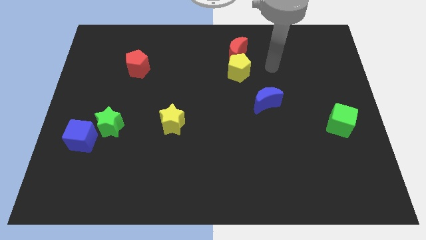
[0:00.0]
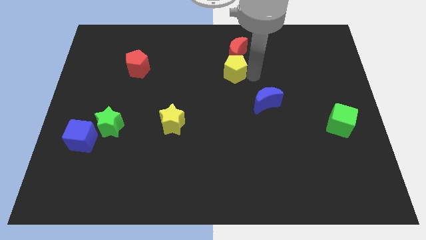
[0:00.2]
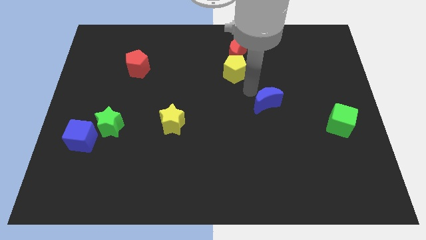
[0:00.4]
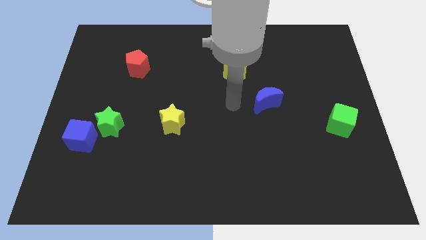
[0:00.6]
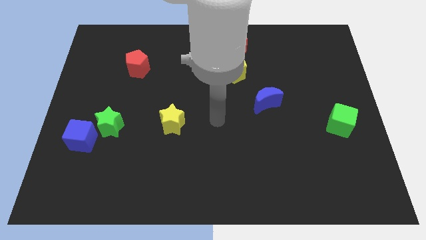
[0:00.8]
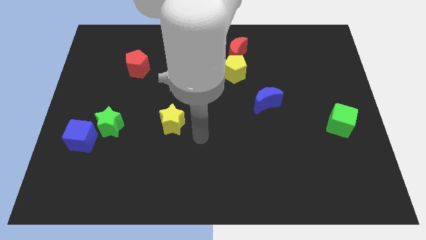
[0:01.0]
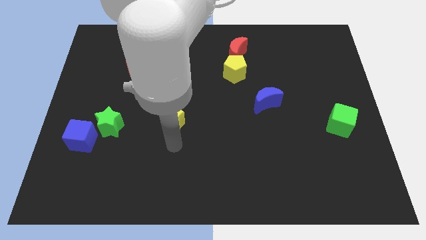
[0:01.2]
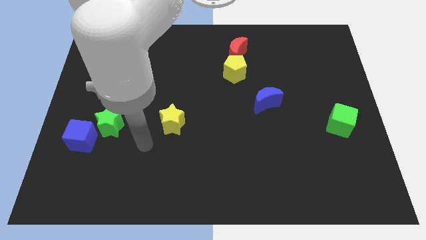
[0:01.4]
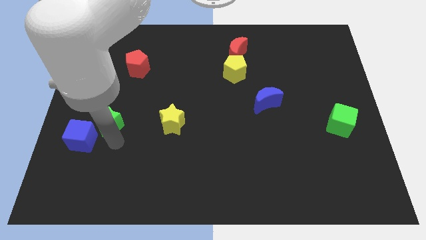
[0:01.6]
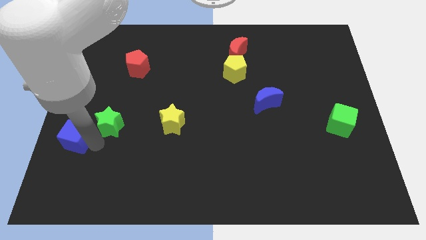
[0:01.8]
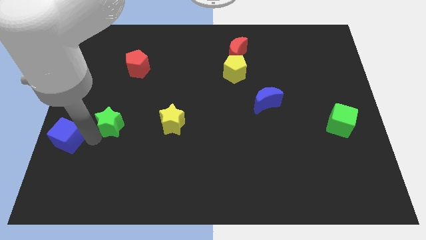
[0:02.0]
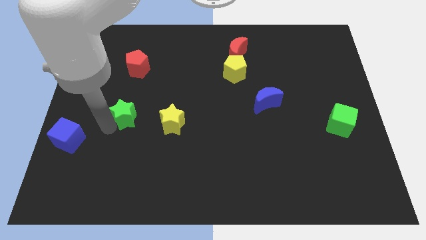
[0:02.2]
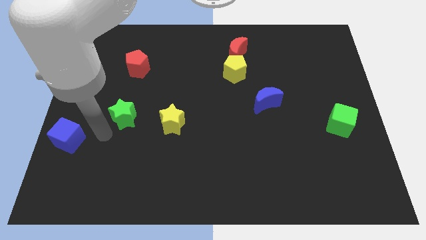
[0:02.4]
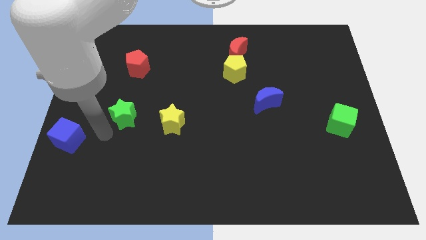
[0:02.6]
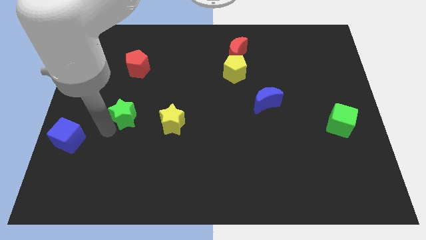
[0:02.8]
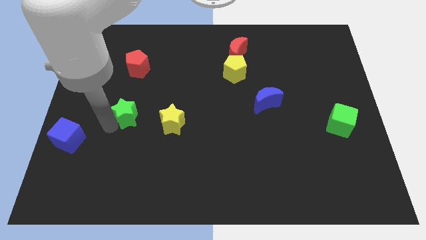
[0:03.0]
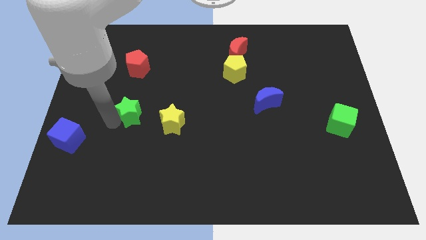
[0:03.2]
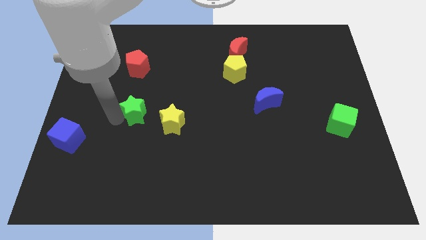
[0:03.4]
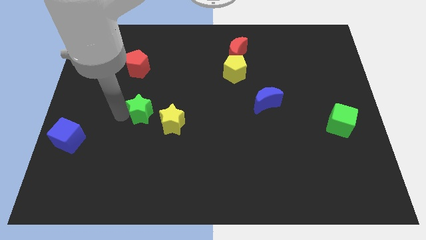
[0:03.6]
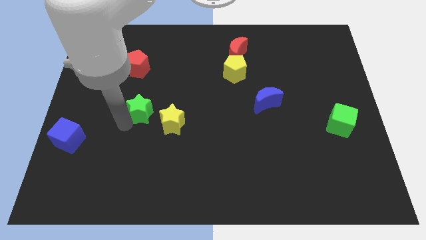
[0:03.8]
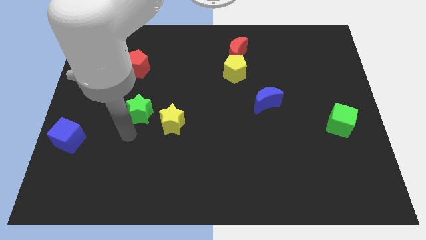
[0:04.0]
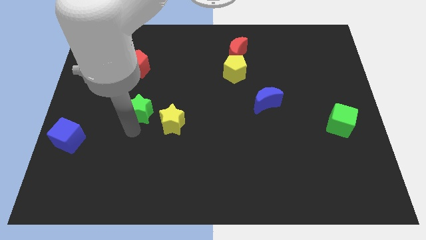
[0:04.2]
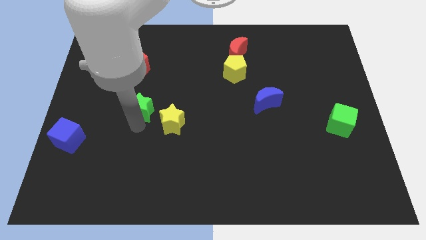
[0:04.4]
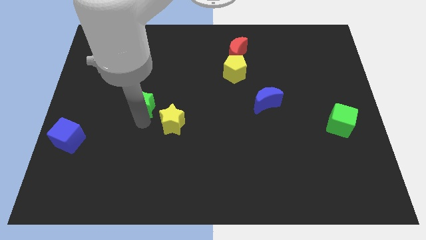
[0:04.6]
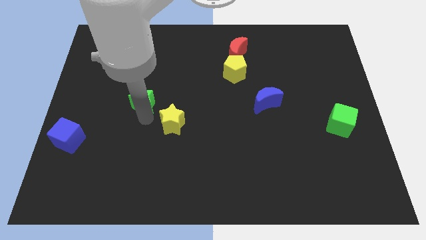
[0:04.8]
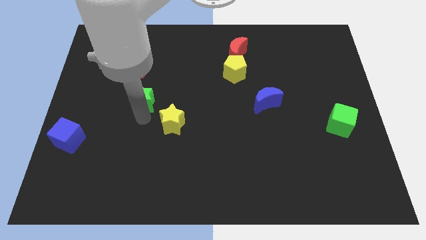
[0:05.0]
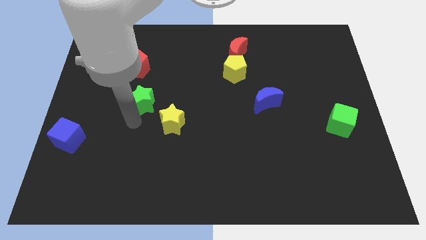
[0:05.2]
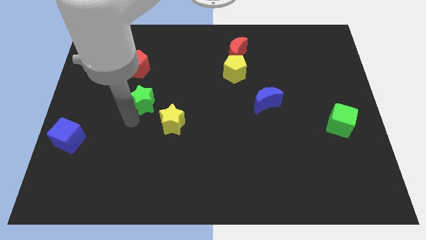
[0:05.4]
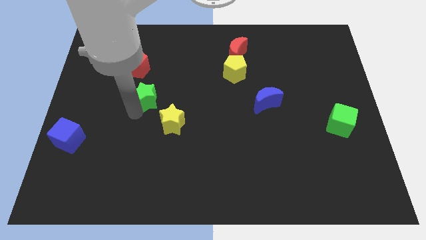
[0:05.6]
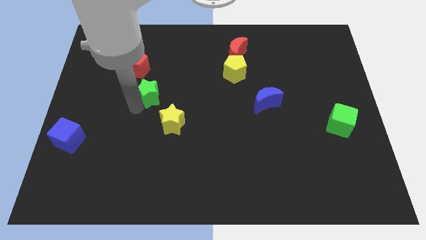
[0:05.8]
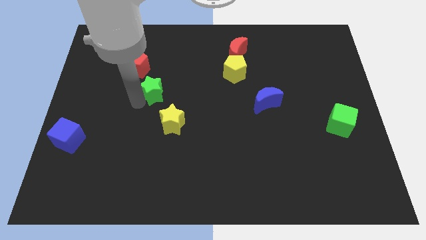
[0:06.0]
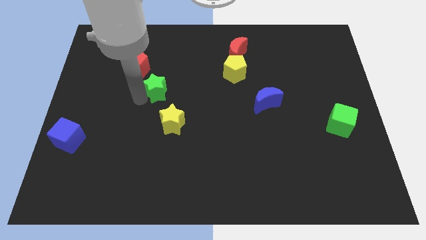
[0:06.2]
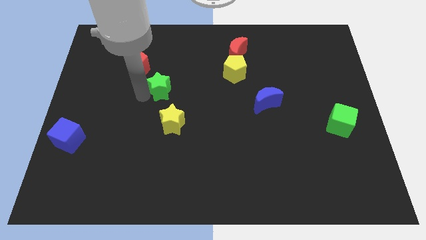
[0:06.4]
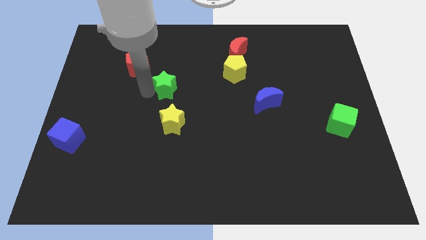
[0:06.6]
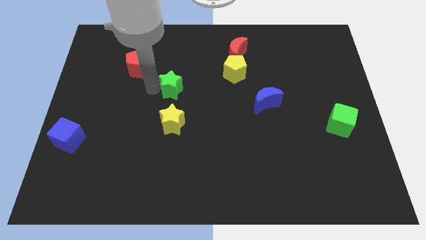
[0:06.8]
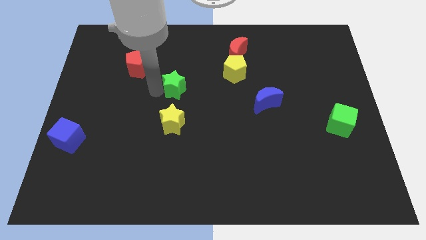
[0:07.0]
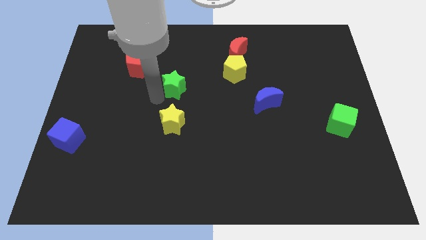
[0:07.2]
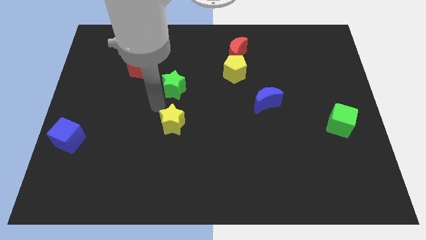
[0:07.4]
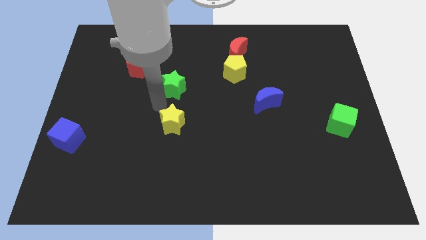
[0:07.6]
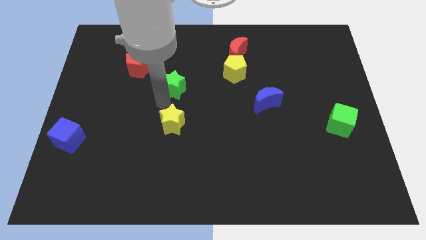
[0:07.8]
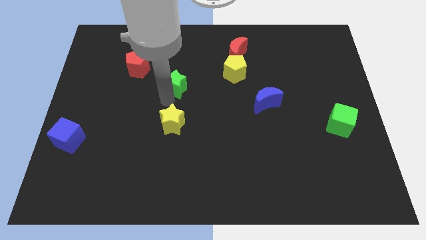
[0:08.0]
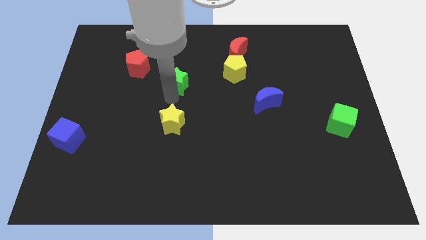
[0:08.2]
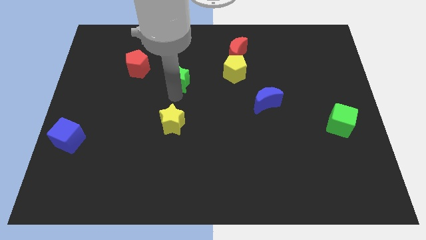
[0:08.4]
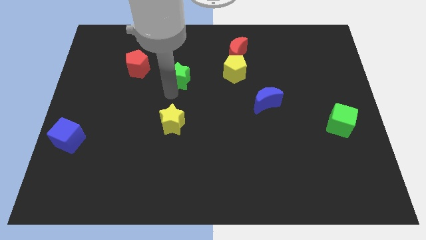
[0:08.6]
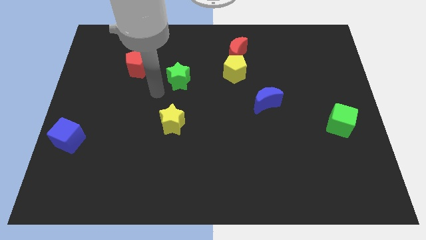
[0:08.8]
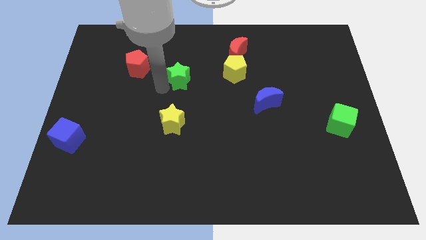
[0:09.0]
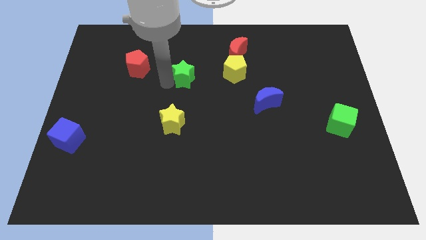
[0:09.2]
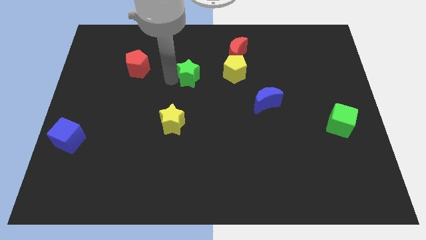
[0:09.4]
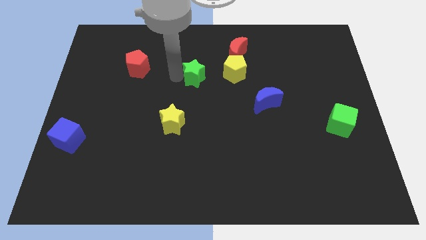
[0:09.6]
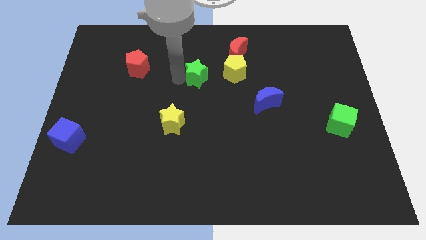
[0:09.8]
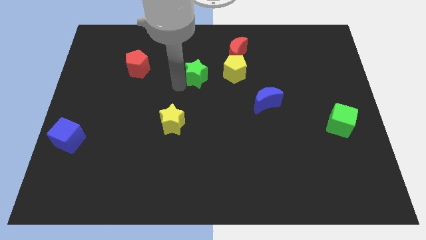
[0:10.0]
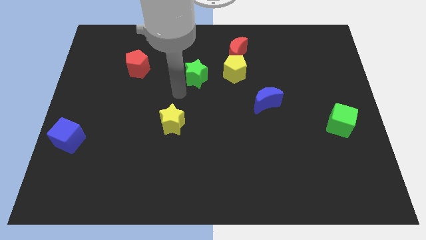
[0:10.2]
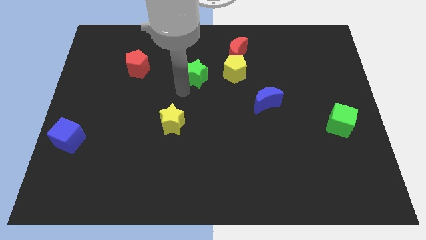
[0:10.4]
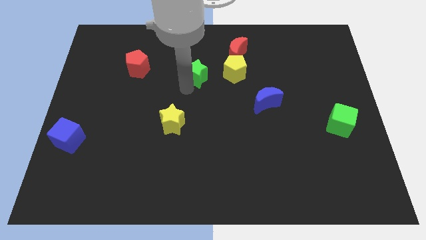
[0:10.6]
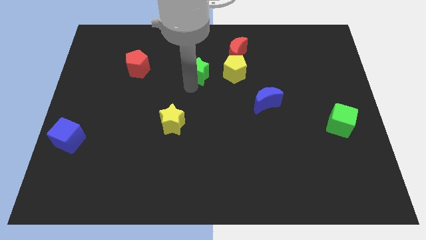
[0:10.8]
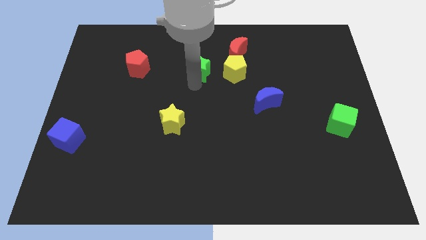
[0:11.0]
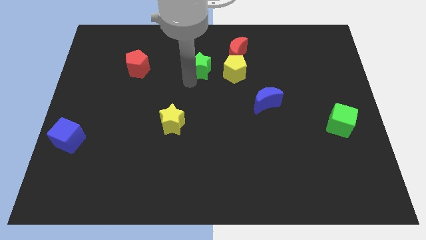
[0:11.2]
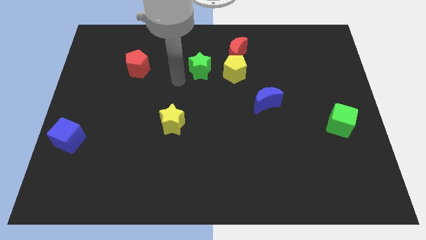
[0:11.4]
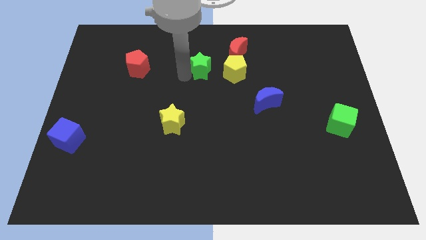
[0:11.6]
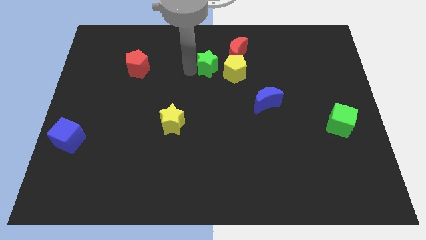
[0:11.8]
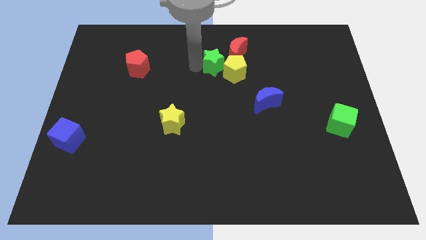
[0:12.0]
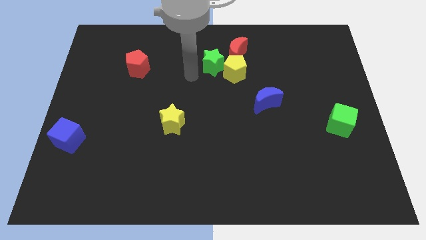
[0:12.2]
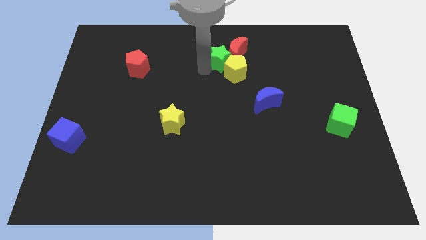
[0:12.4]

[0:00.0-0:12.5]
move the green star close to the red moon

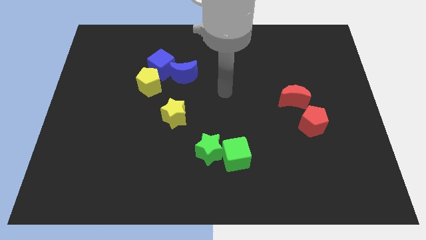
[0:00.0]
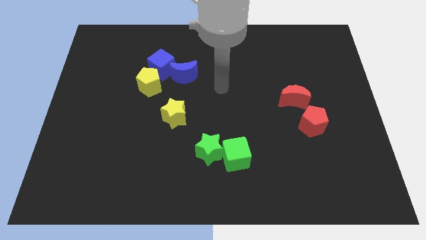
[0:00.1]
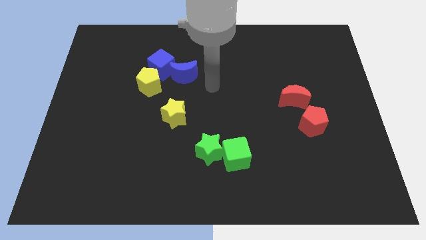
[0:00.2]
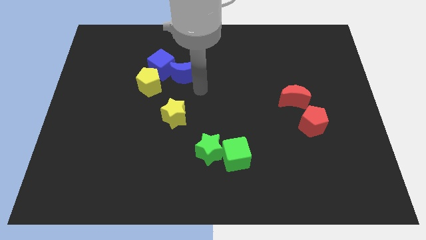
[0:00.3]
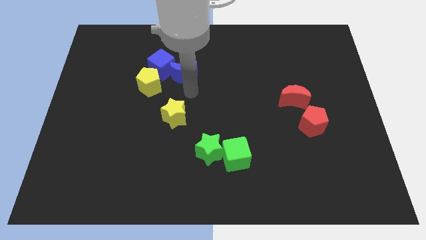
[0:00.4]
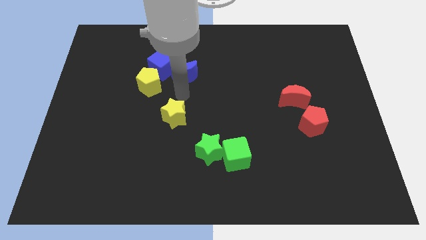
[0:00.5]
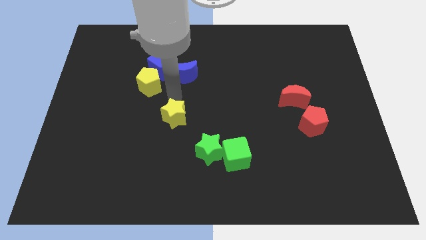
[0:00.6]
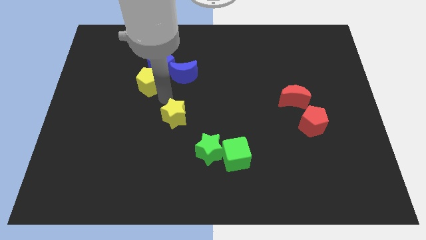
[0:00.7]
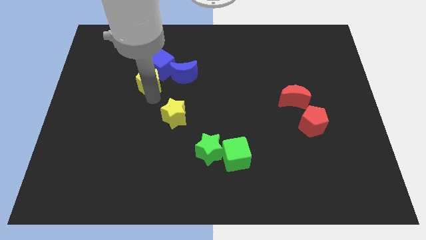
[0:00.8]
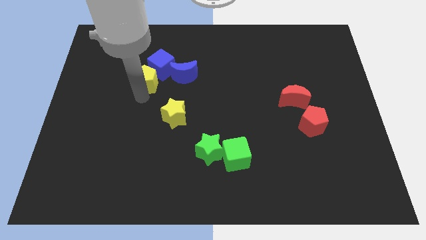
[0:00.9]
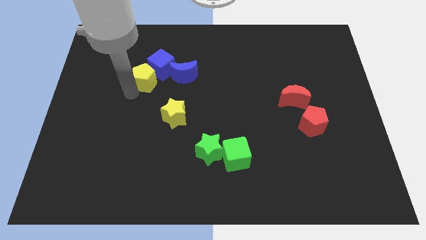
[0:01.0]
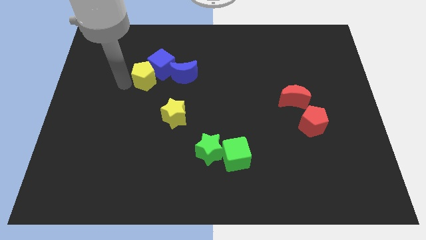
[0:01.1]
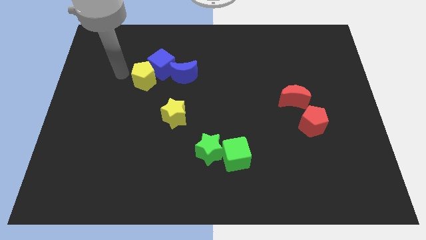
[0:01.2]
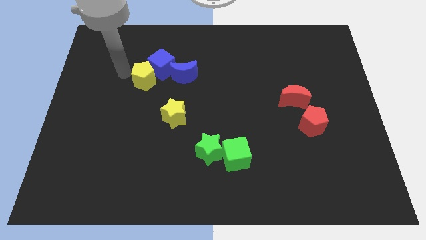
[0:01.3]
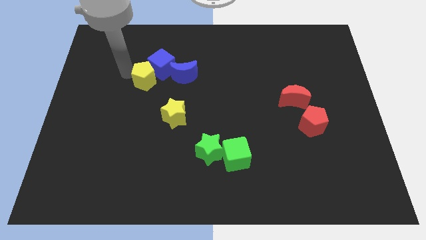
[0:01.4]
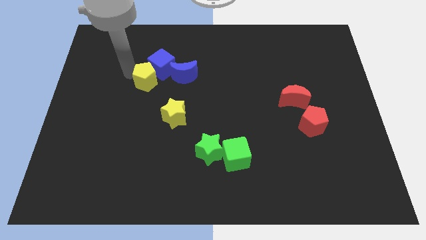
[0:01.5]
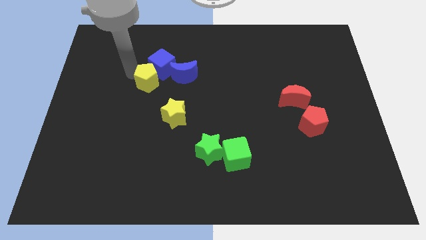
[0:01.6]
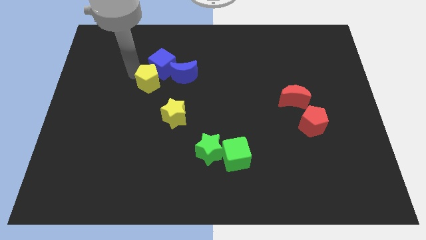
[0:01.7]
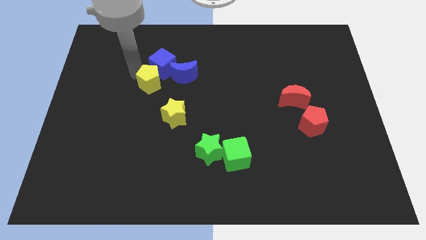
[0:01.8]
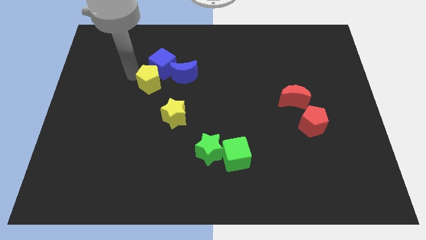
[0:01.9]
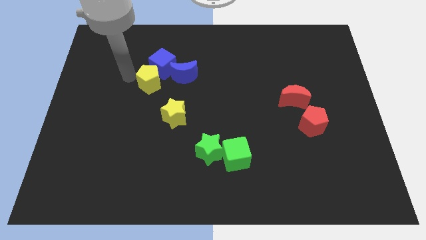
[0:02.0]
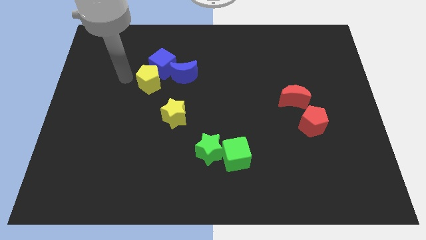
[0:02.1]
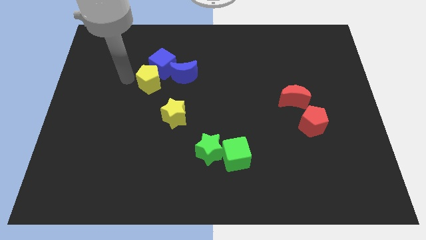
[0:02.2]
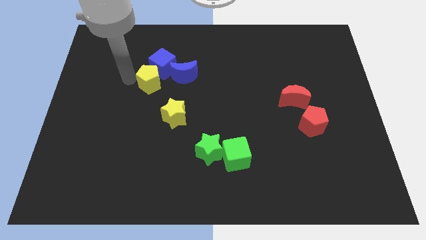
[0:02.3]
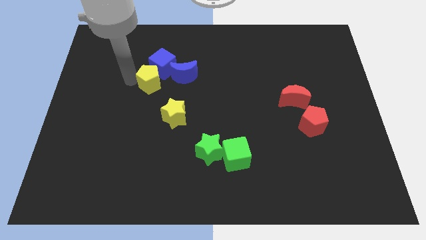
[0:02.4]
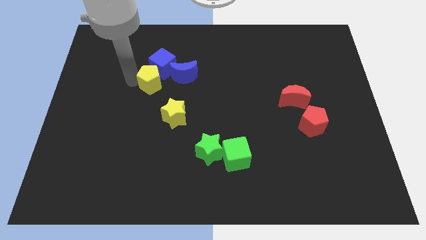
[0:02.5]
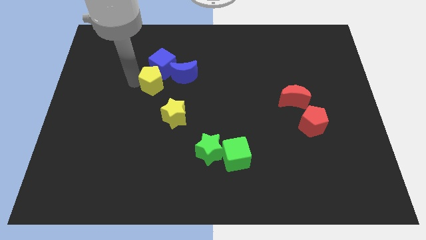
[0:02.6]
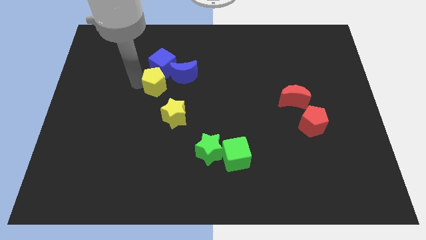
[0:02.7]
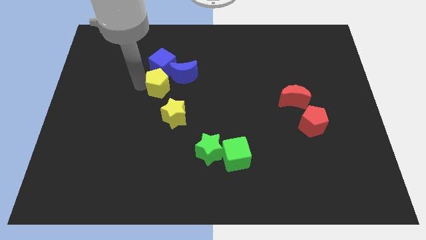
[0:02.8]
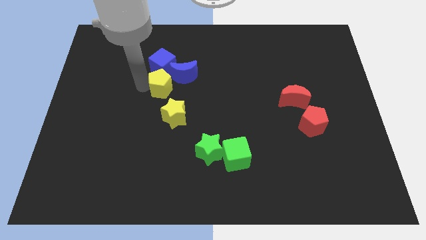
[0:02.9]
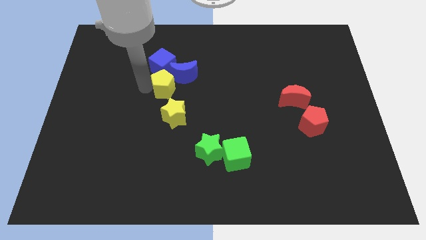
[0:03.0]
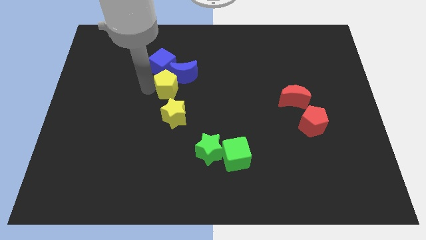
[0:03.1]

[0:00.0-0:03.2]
push the yellow pentagon close to the blue moon
